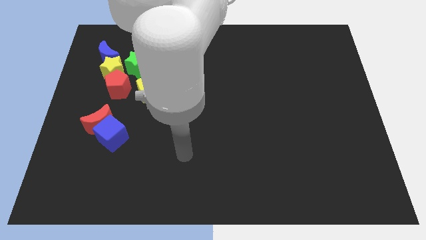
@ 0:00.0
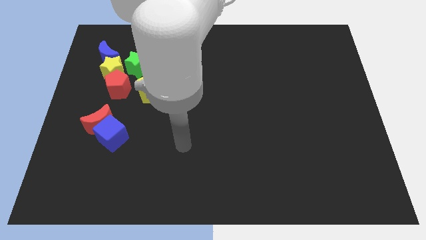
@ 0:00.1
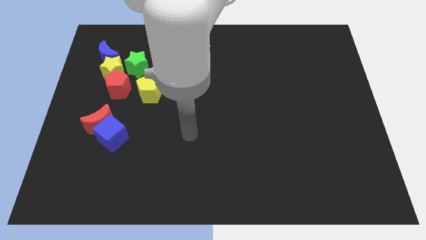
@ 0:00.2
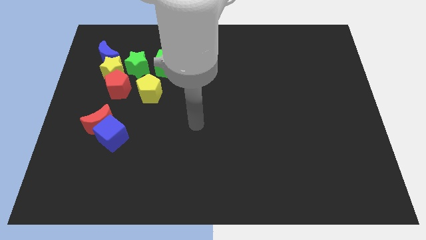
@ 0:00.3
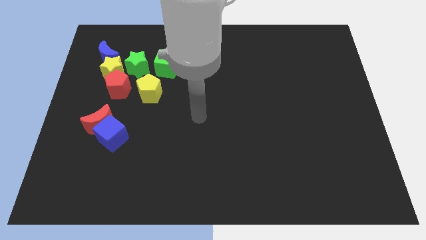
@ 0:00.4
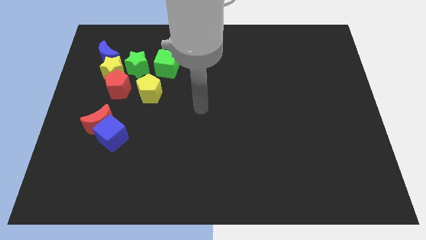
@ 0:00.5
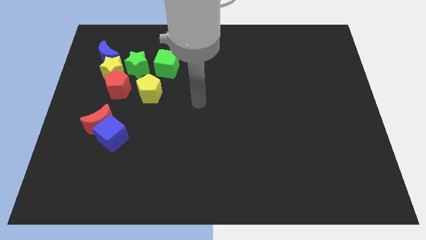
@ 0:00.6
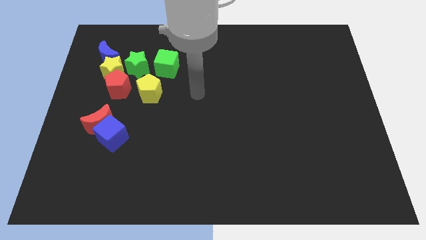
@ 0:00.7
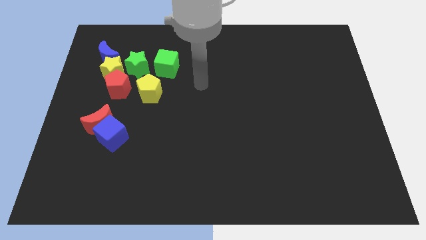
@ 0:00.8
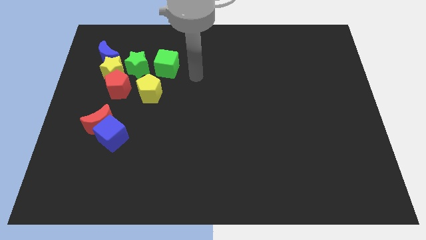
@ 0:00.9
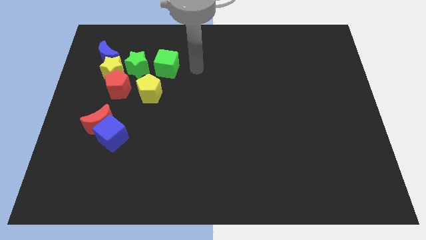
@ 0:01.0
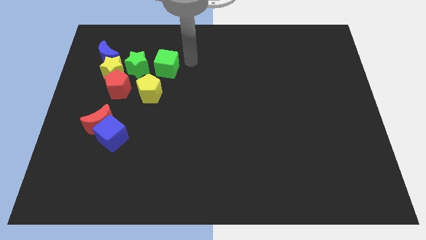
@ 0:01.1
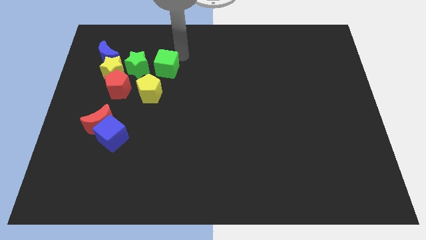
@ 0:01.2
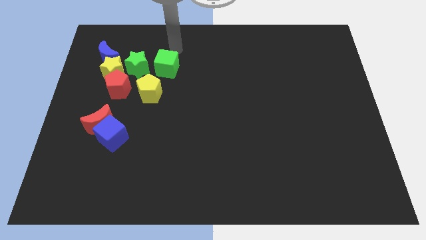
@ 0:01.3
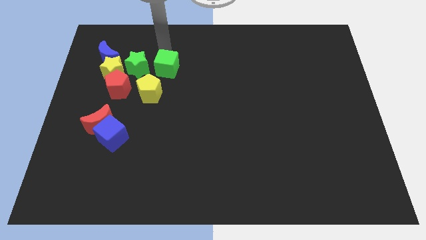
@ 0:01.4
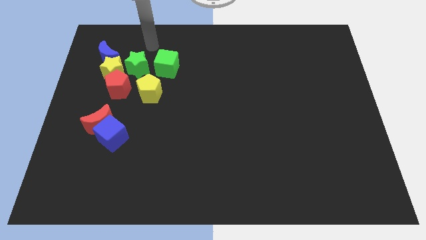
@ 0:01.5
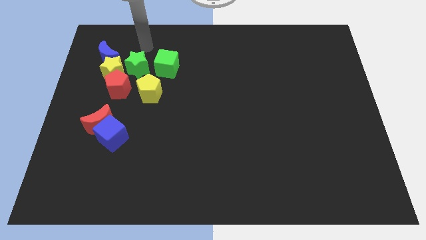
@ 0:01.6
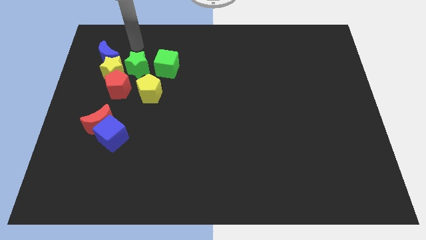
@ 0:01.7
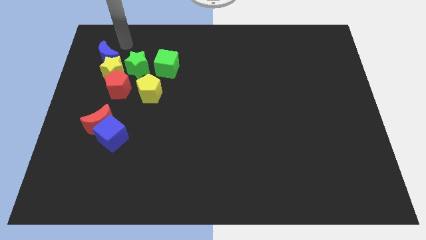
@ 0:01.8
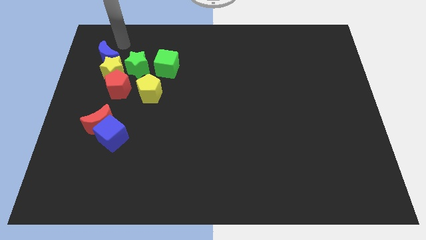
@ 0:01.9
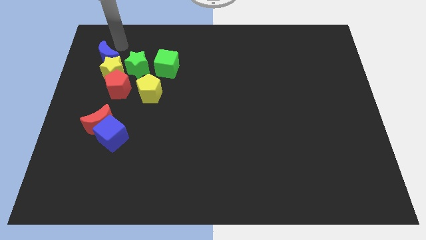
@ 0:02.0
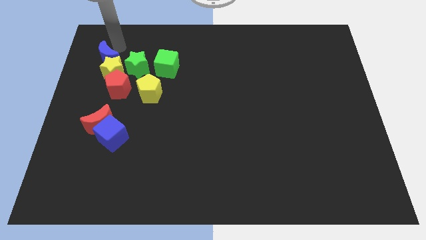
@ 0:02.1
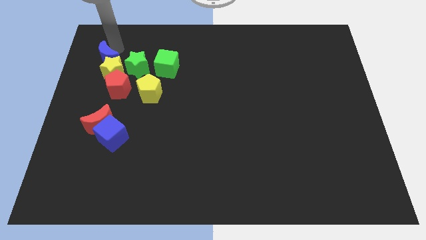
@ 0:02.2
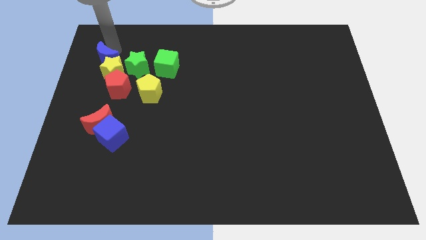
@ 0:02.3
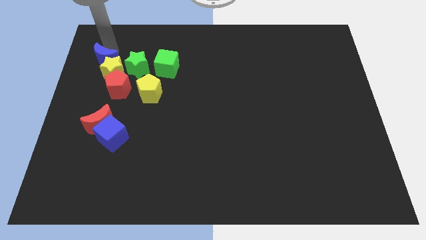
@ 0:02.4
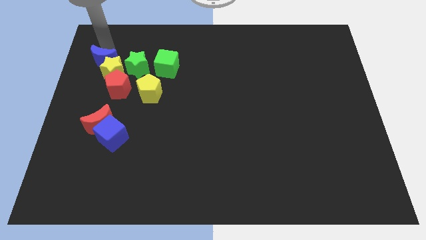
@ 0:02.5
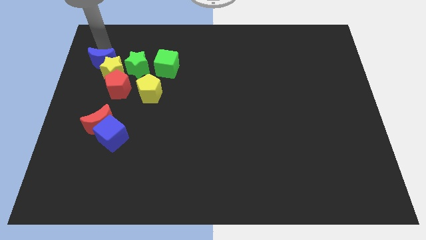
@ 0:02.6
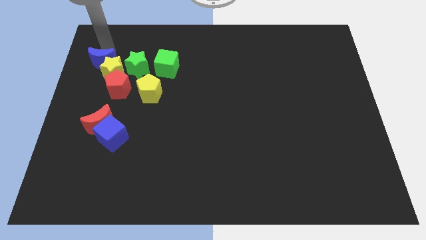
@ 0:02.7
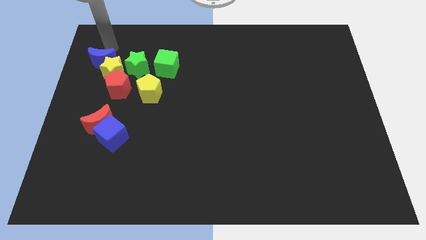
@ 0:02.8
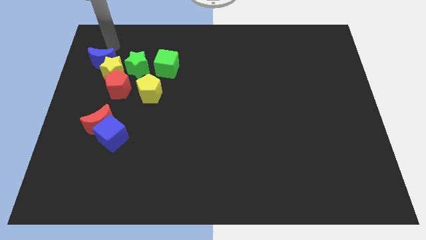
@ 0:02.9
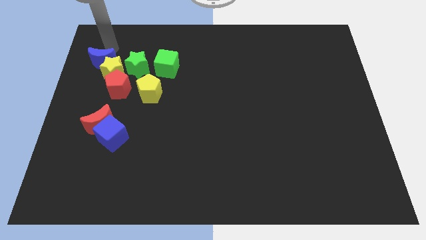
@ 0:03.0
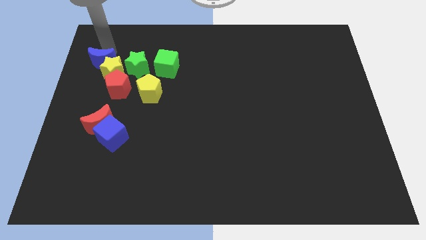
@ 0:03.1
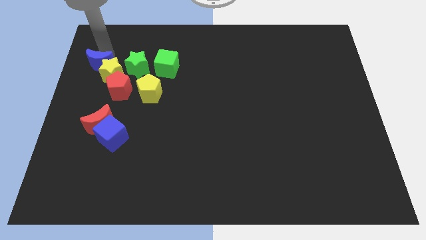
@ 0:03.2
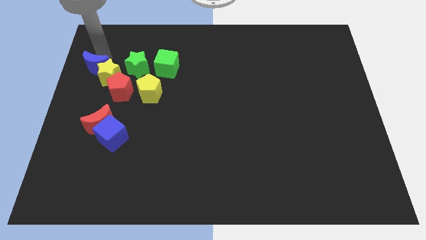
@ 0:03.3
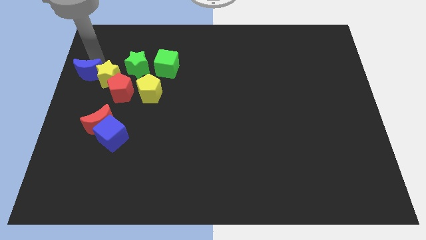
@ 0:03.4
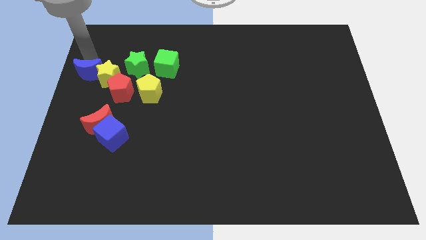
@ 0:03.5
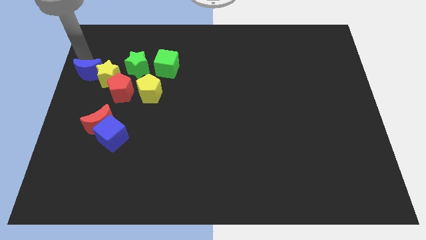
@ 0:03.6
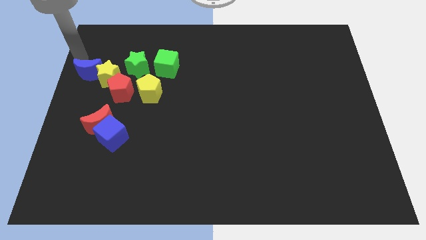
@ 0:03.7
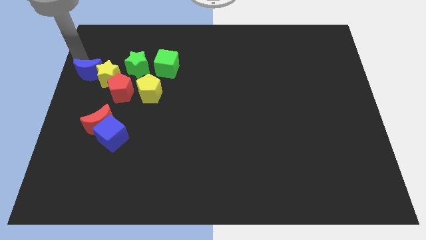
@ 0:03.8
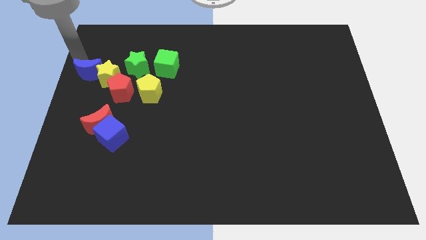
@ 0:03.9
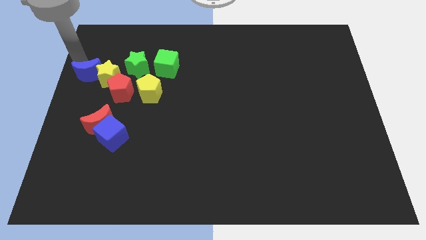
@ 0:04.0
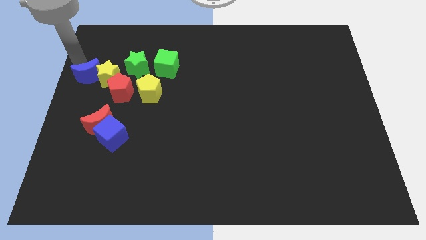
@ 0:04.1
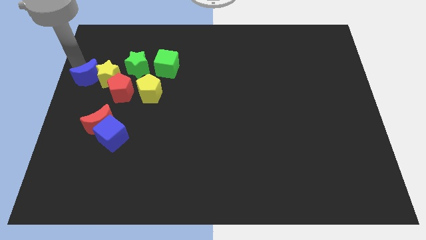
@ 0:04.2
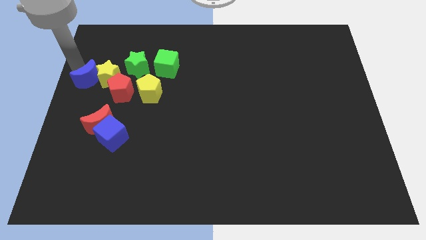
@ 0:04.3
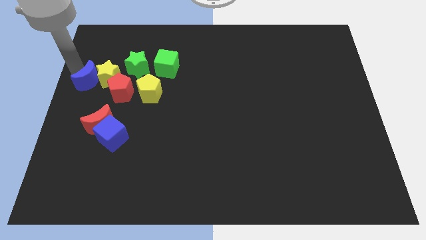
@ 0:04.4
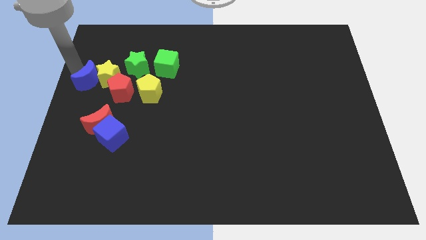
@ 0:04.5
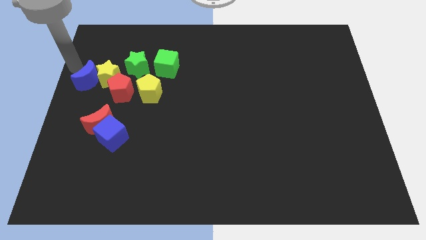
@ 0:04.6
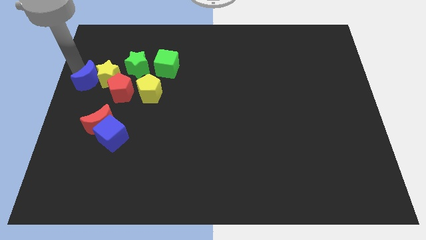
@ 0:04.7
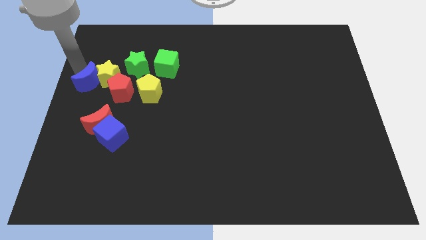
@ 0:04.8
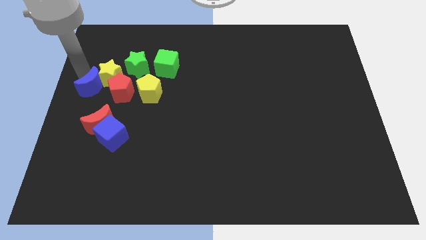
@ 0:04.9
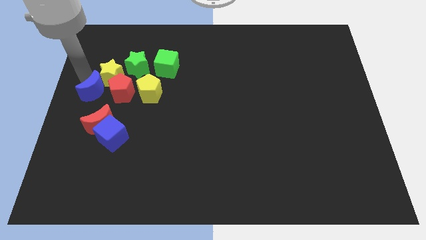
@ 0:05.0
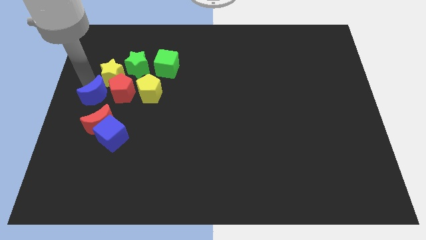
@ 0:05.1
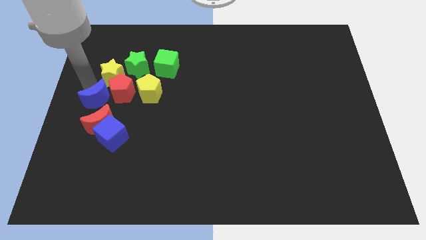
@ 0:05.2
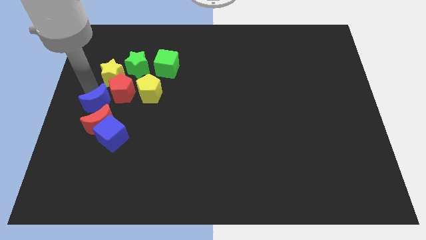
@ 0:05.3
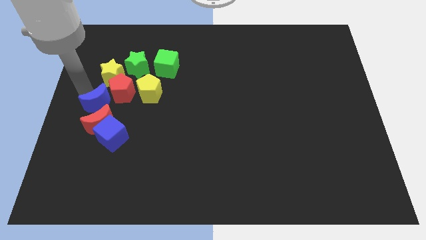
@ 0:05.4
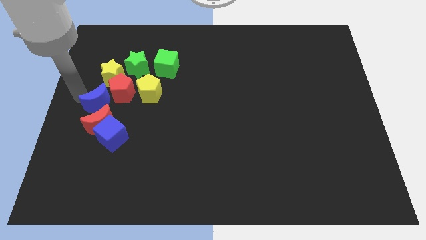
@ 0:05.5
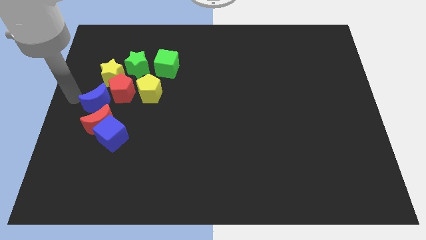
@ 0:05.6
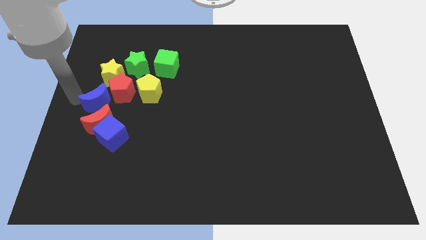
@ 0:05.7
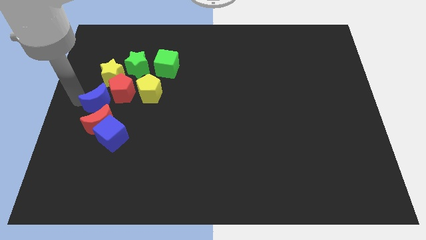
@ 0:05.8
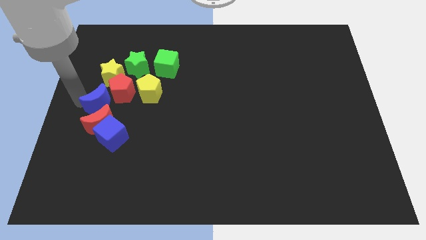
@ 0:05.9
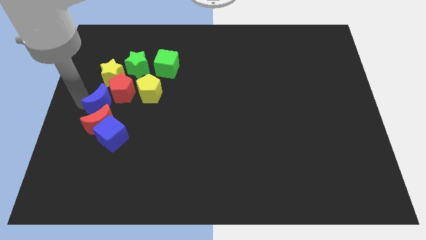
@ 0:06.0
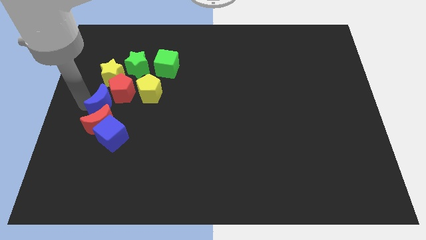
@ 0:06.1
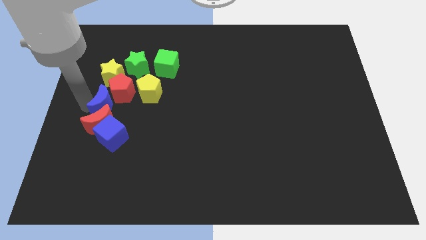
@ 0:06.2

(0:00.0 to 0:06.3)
put the blue moon to the bottom left side of the yellow pentagon
